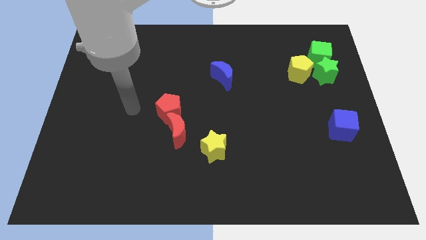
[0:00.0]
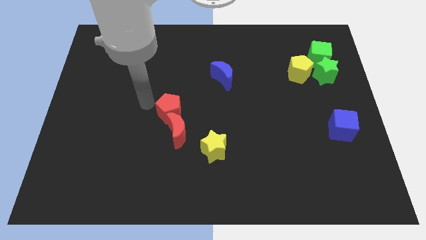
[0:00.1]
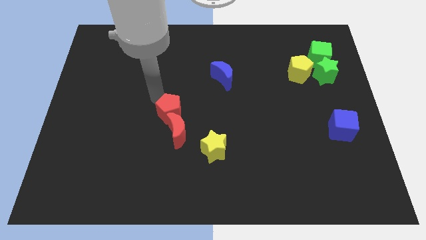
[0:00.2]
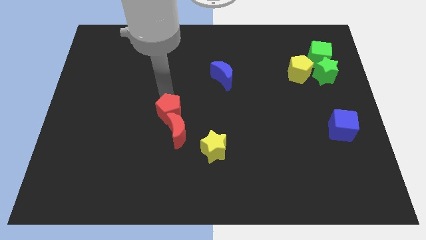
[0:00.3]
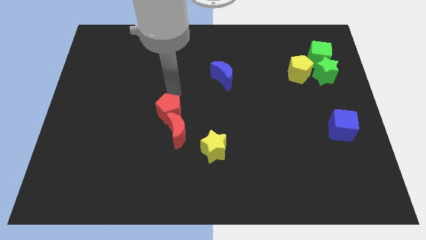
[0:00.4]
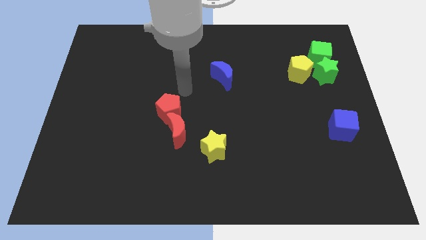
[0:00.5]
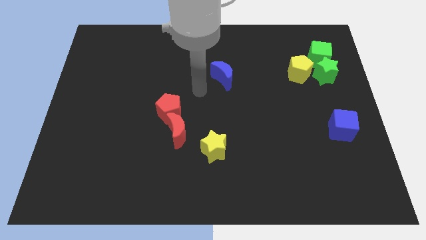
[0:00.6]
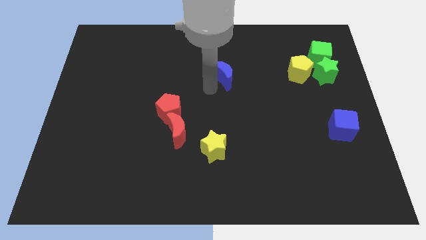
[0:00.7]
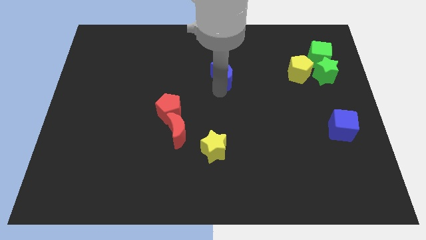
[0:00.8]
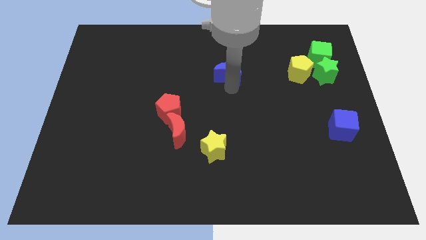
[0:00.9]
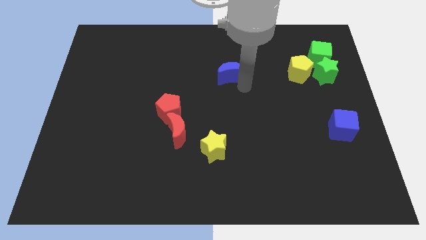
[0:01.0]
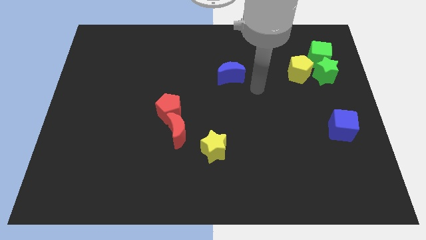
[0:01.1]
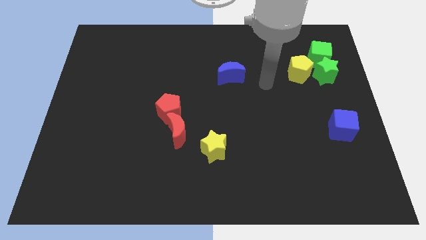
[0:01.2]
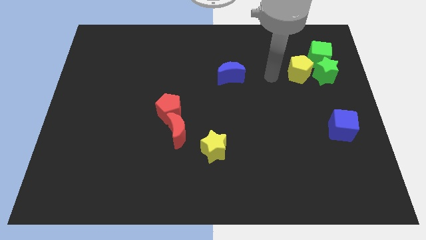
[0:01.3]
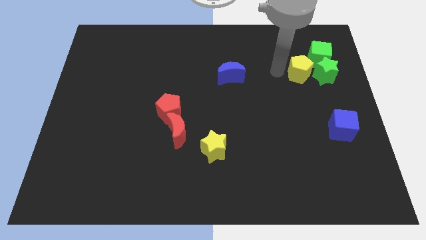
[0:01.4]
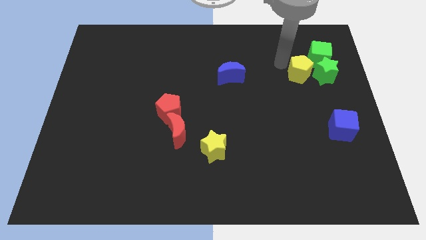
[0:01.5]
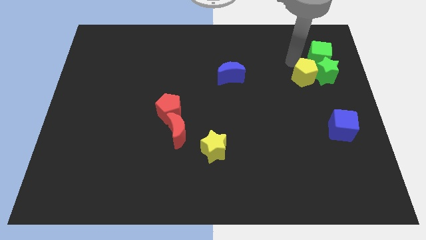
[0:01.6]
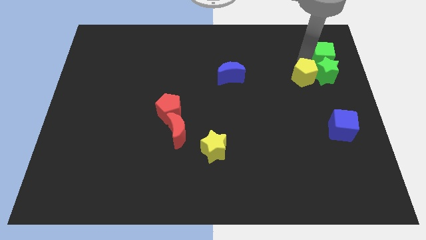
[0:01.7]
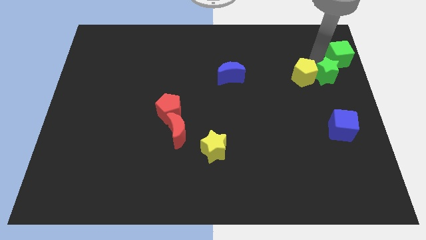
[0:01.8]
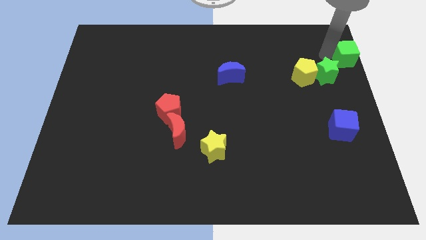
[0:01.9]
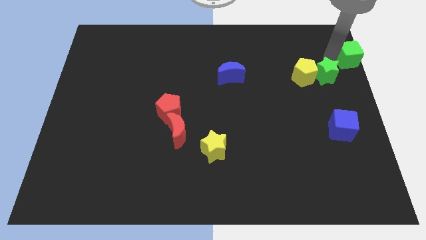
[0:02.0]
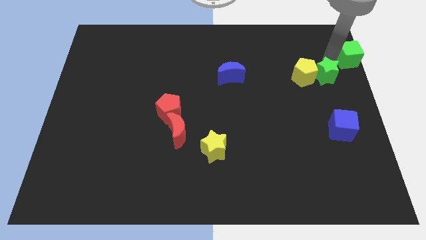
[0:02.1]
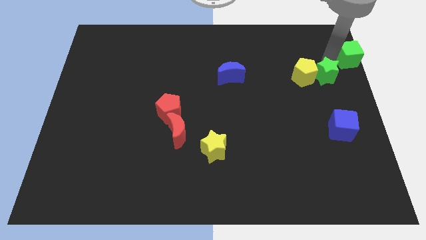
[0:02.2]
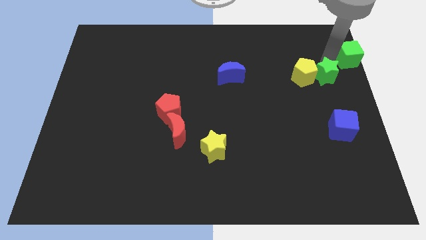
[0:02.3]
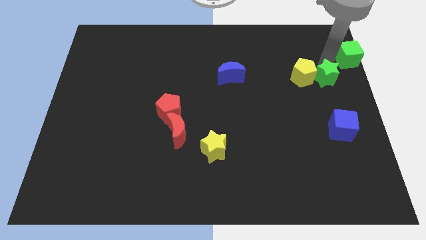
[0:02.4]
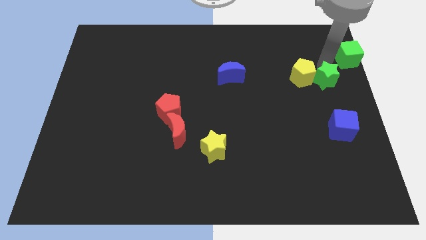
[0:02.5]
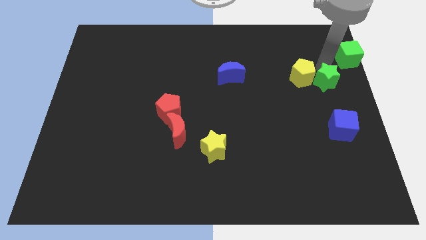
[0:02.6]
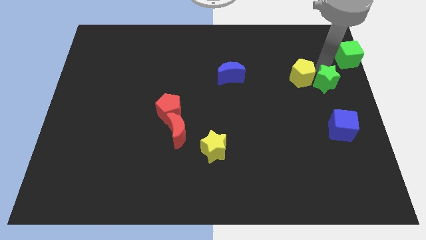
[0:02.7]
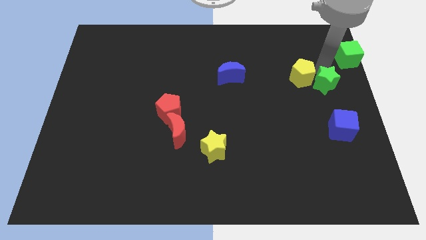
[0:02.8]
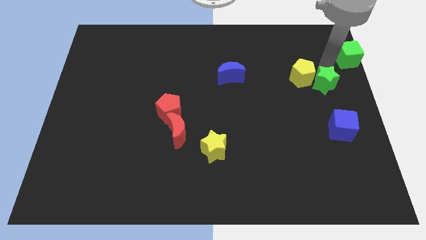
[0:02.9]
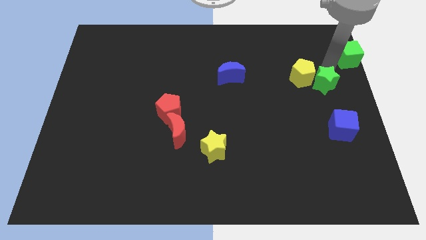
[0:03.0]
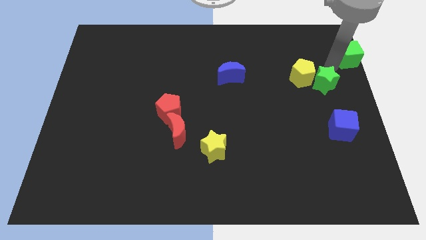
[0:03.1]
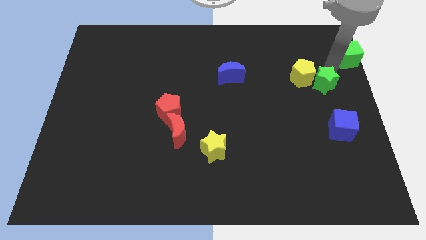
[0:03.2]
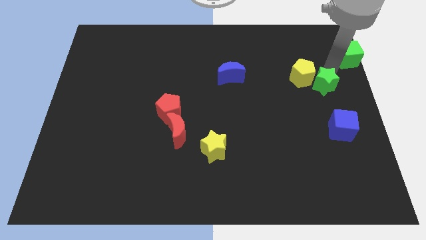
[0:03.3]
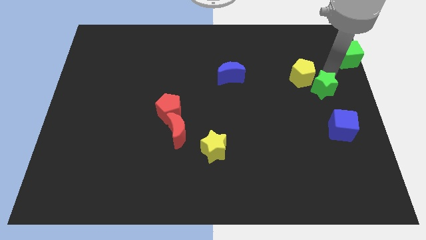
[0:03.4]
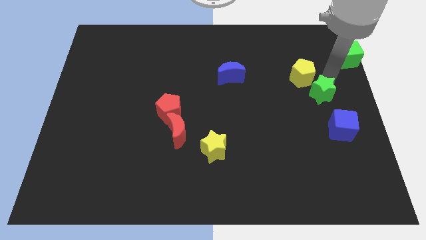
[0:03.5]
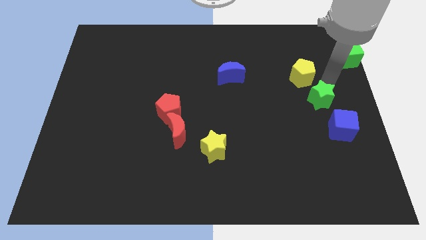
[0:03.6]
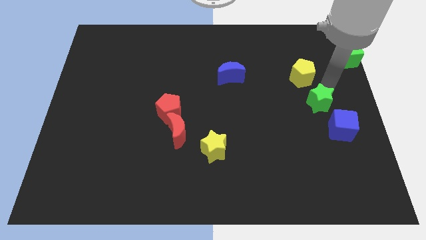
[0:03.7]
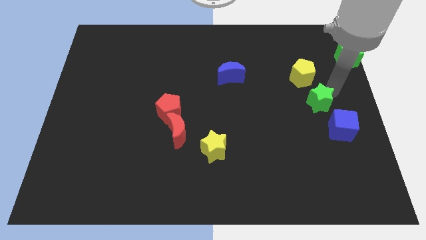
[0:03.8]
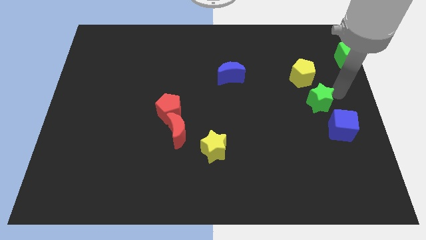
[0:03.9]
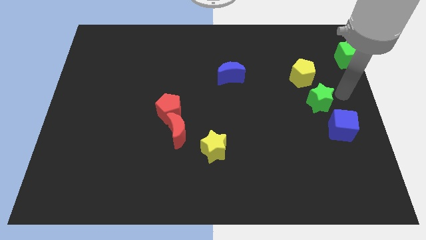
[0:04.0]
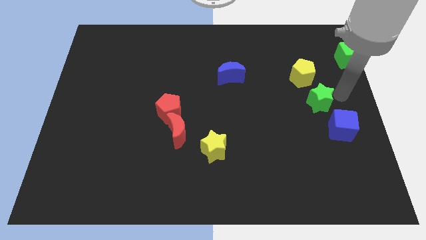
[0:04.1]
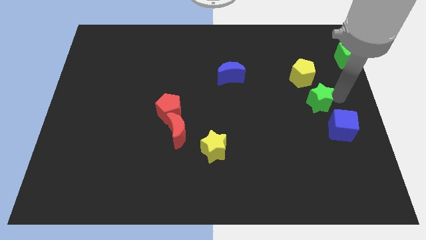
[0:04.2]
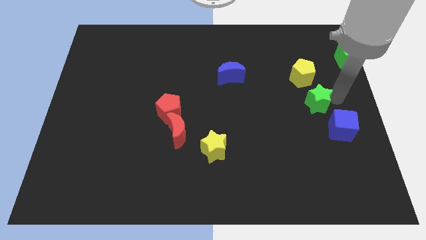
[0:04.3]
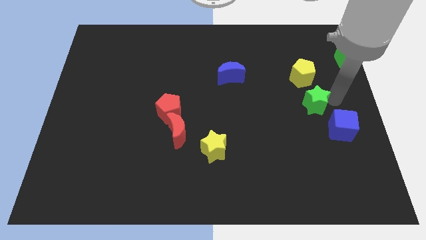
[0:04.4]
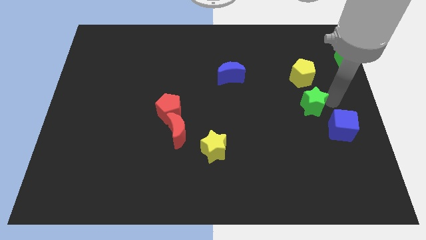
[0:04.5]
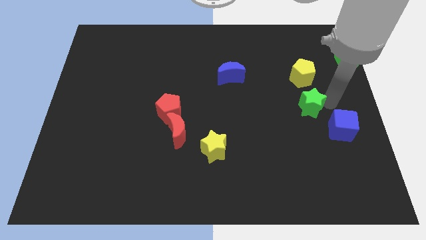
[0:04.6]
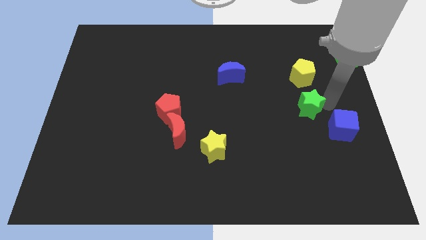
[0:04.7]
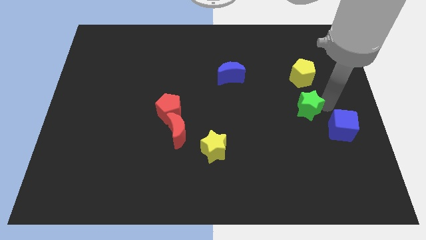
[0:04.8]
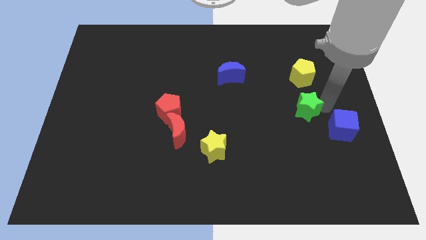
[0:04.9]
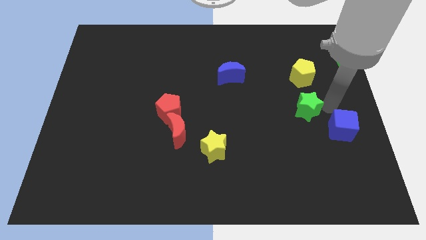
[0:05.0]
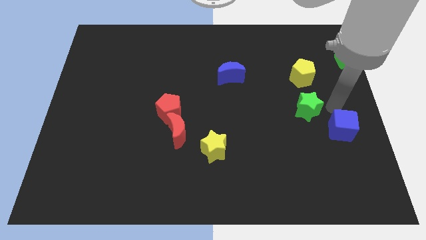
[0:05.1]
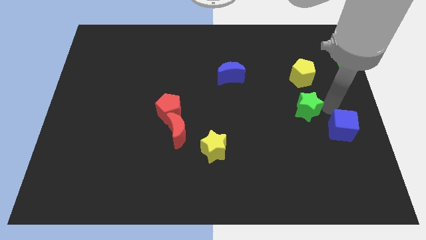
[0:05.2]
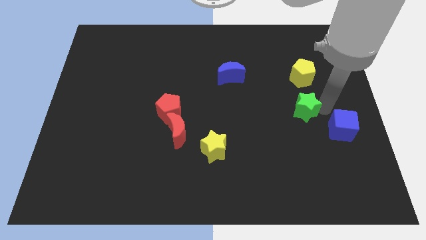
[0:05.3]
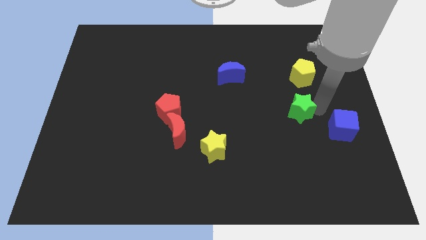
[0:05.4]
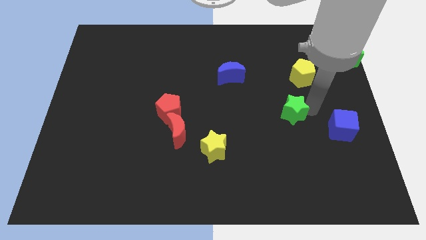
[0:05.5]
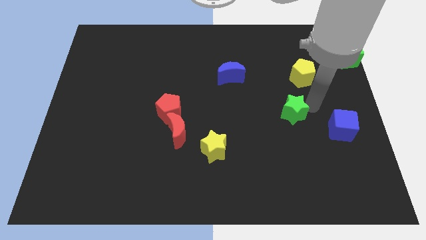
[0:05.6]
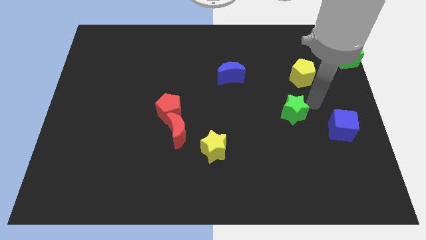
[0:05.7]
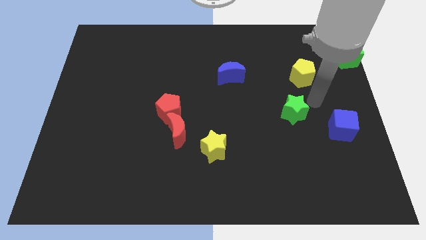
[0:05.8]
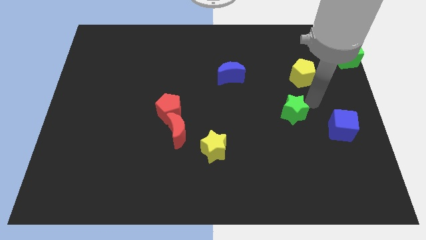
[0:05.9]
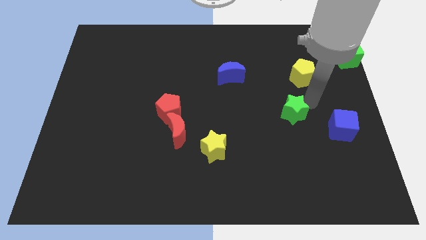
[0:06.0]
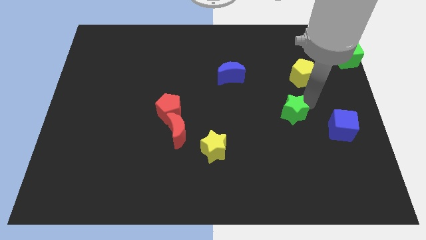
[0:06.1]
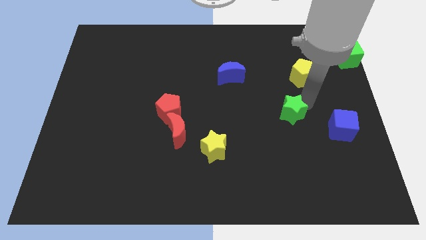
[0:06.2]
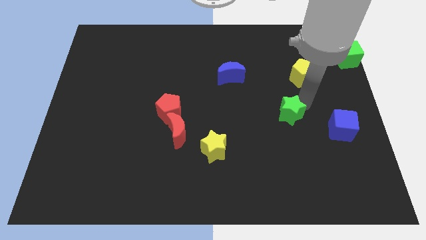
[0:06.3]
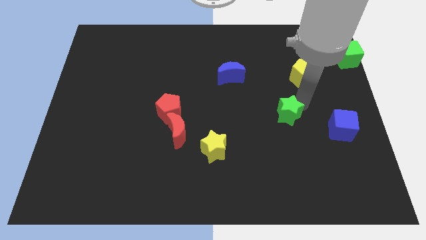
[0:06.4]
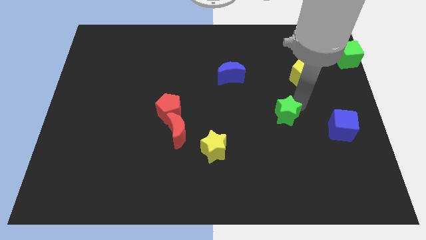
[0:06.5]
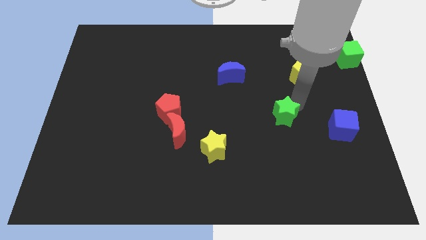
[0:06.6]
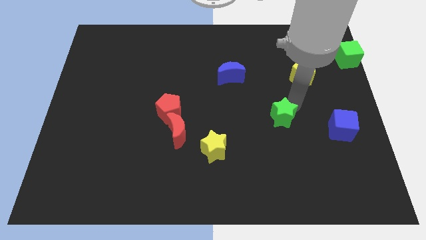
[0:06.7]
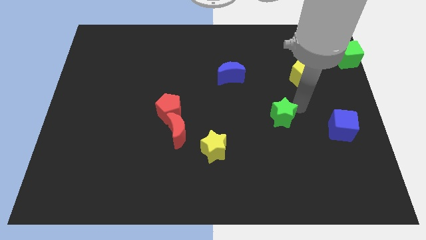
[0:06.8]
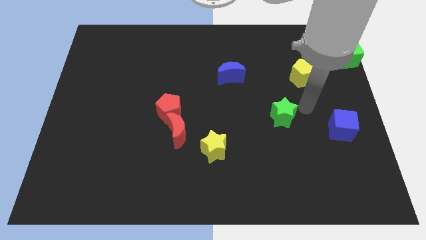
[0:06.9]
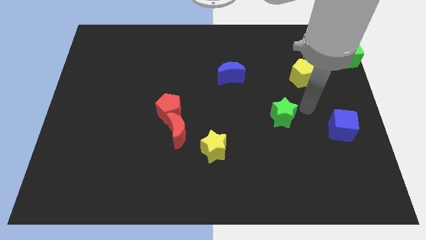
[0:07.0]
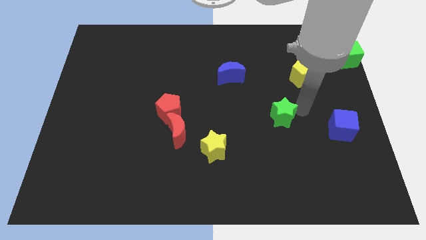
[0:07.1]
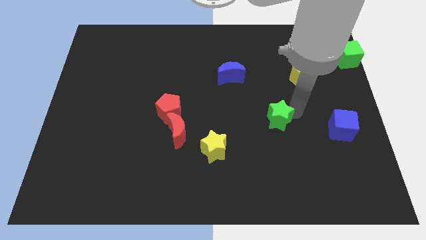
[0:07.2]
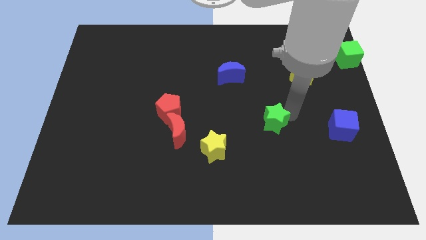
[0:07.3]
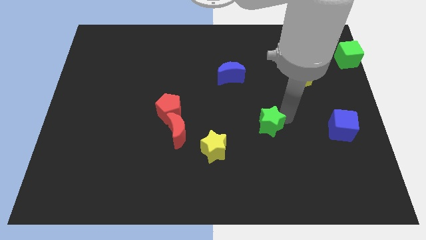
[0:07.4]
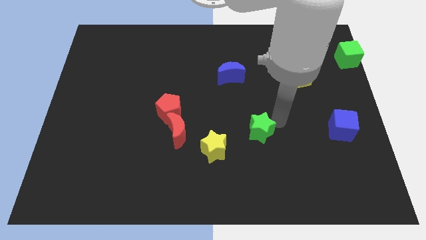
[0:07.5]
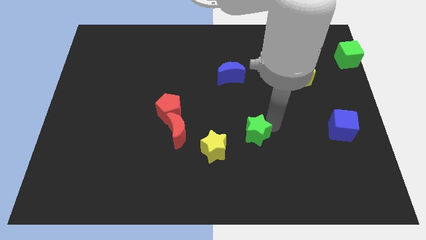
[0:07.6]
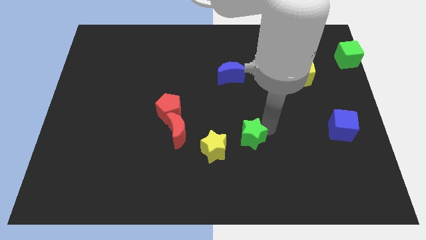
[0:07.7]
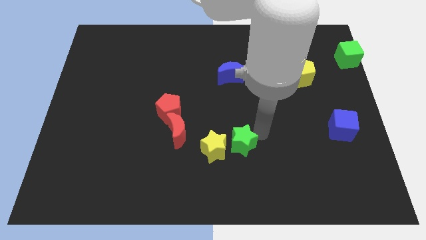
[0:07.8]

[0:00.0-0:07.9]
put the green star towards the yellow star

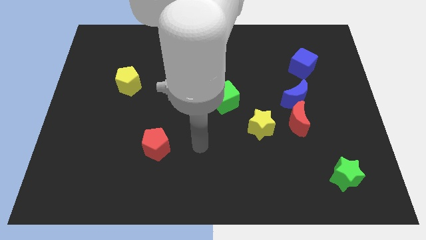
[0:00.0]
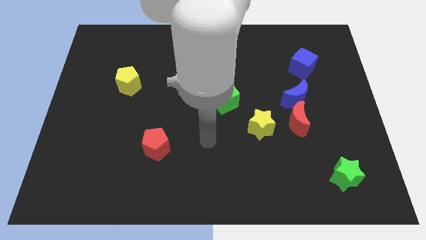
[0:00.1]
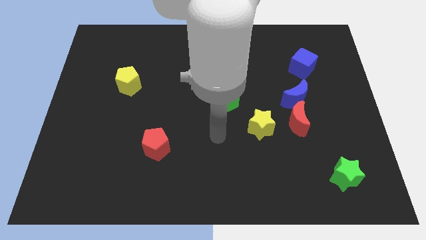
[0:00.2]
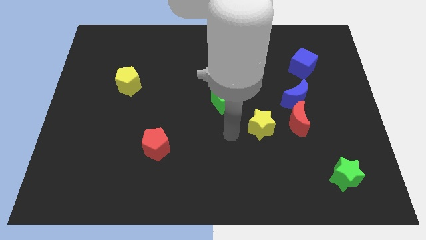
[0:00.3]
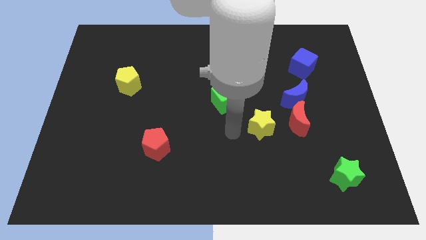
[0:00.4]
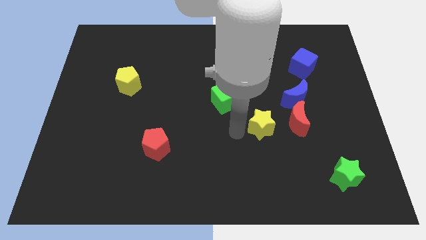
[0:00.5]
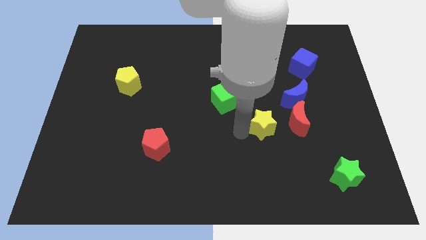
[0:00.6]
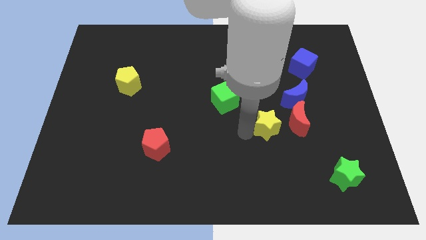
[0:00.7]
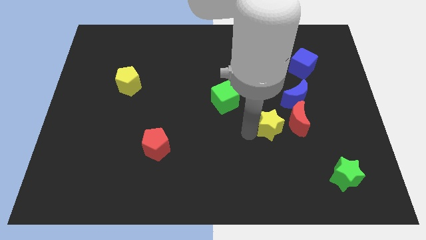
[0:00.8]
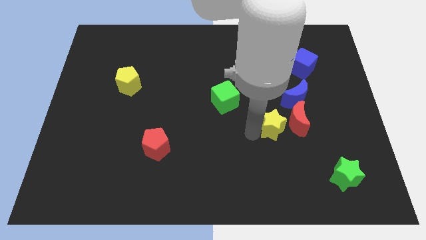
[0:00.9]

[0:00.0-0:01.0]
slide the yellow star next to the red moon
